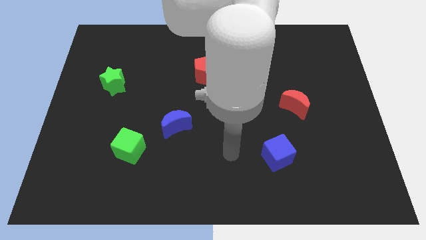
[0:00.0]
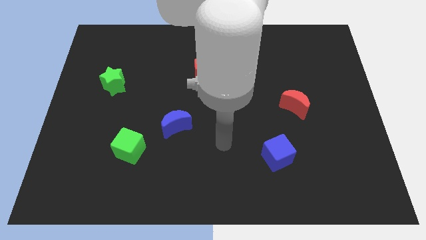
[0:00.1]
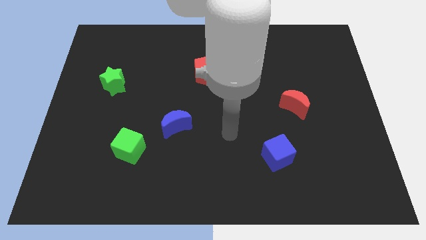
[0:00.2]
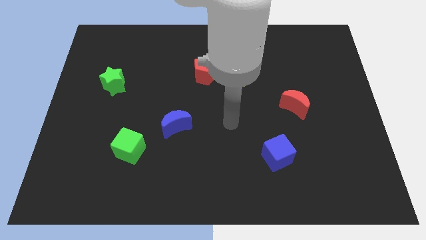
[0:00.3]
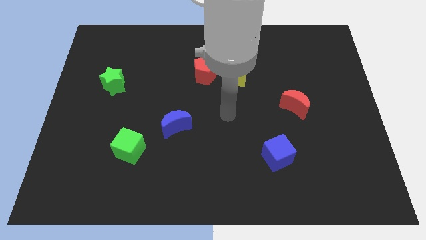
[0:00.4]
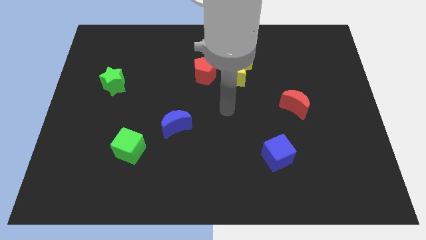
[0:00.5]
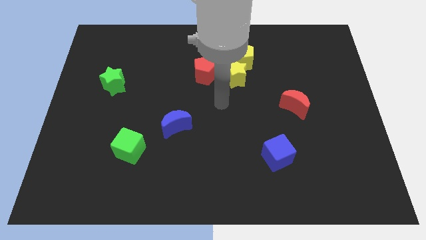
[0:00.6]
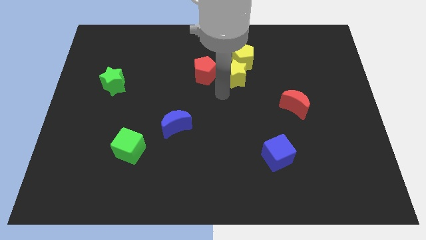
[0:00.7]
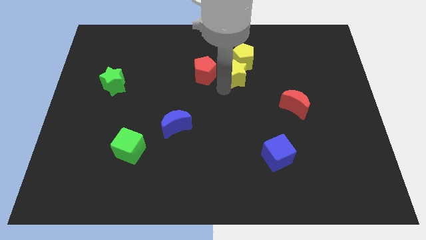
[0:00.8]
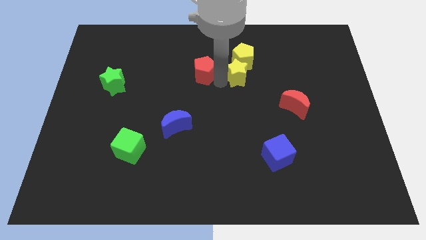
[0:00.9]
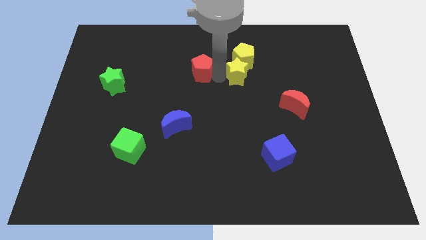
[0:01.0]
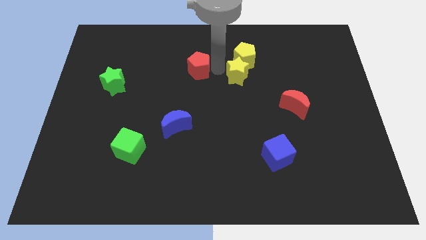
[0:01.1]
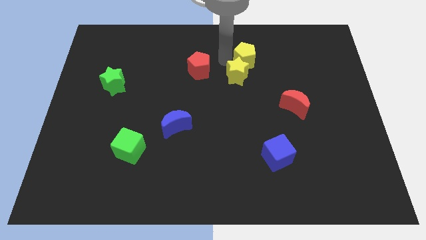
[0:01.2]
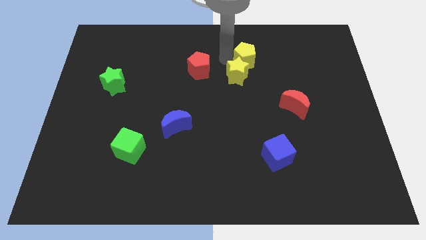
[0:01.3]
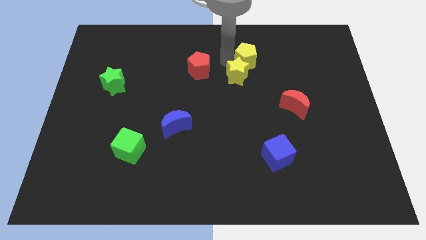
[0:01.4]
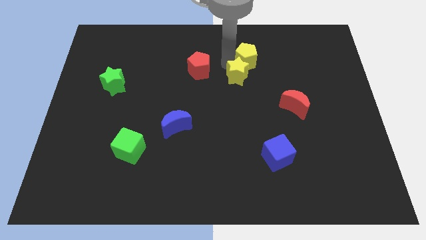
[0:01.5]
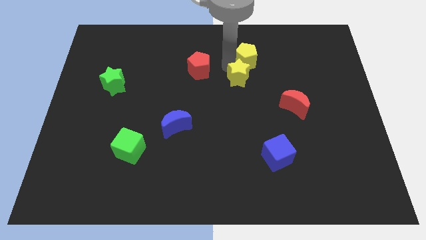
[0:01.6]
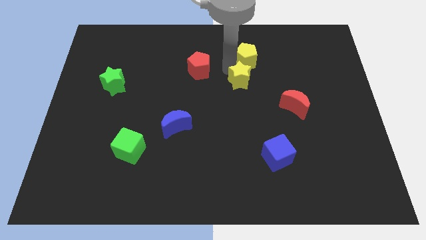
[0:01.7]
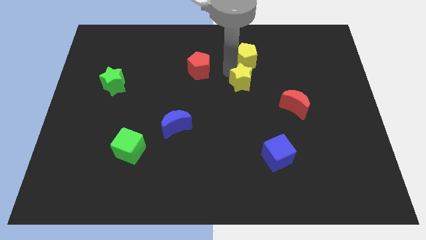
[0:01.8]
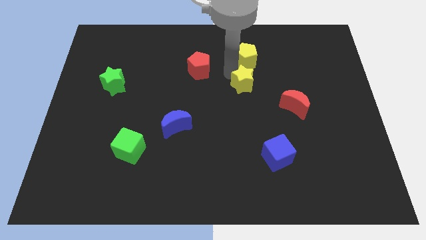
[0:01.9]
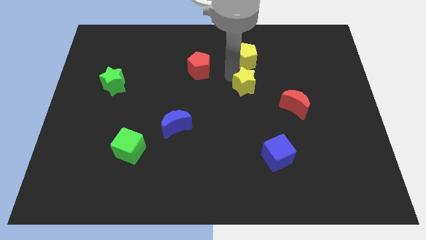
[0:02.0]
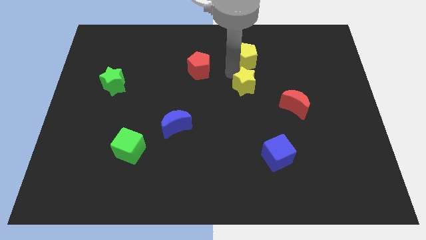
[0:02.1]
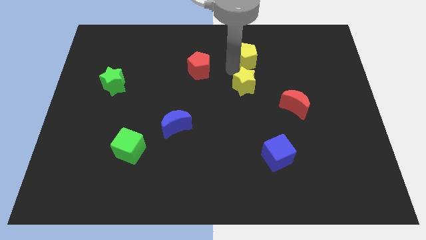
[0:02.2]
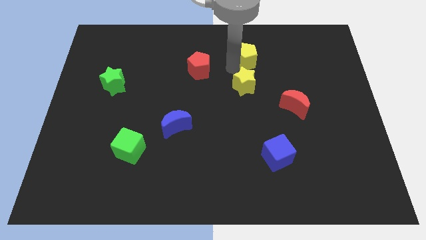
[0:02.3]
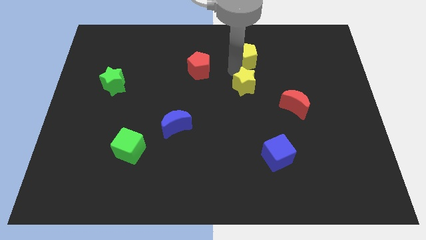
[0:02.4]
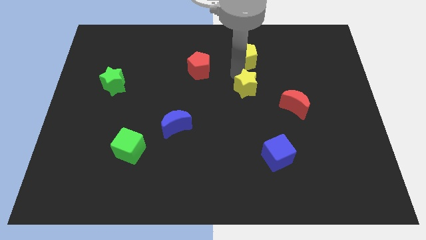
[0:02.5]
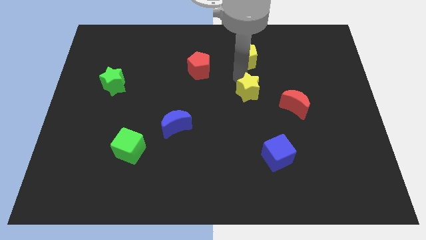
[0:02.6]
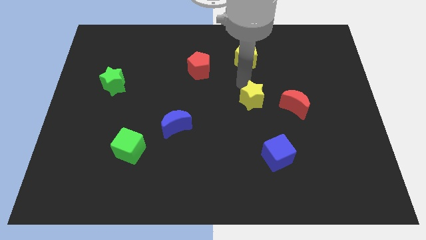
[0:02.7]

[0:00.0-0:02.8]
slightly move the yellow star downwards and to the right

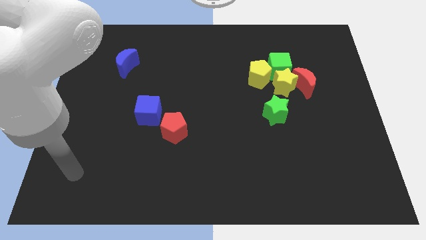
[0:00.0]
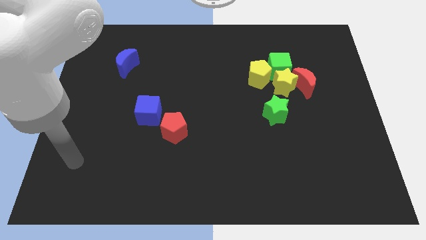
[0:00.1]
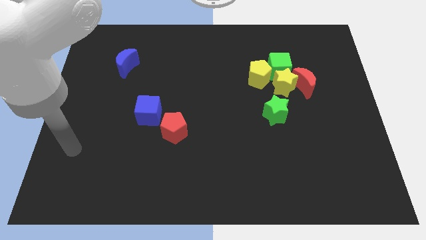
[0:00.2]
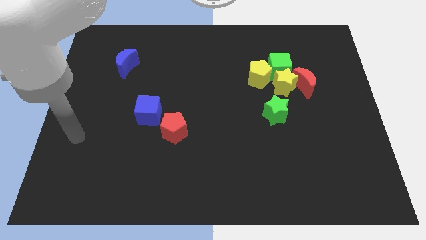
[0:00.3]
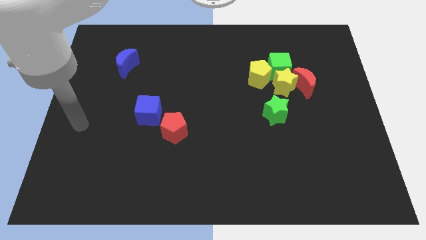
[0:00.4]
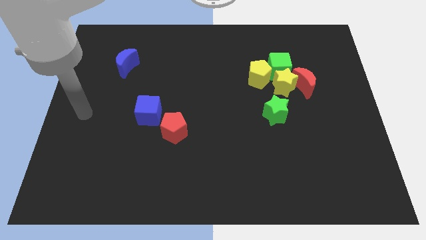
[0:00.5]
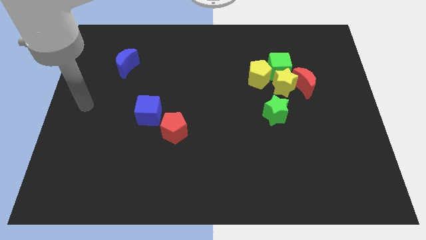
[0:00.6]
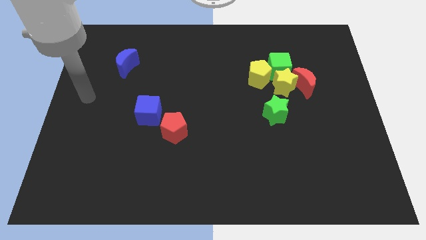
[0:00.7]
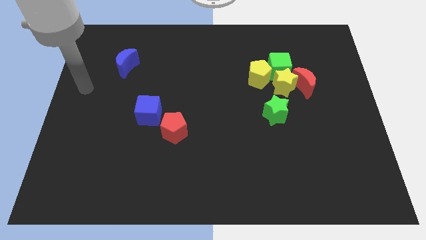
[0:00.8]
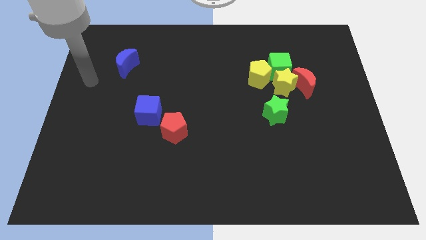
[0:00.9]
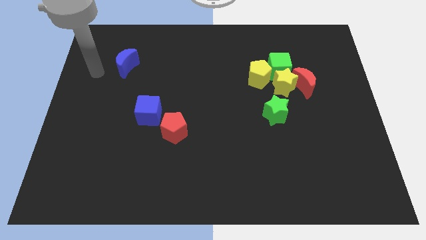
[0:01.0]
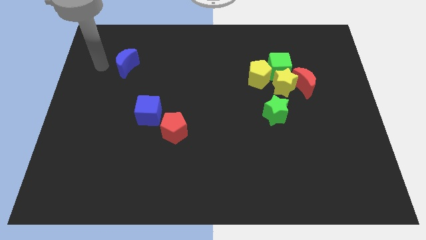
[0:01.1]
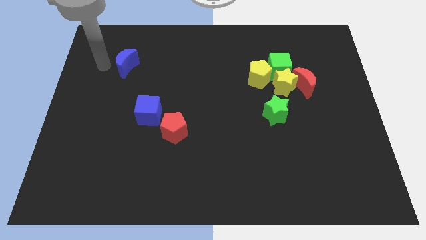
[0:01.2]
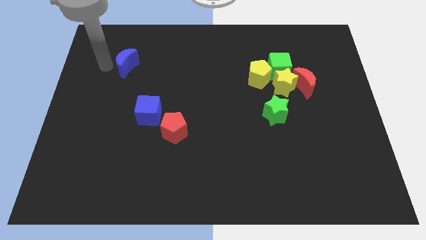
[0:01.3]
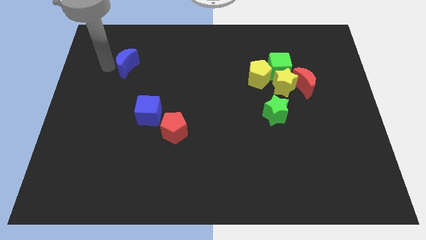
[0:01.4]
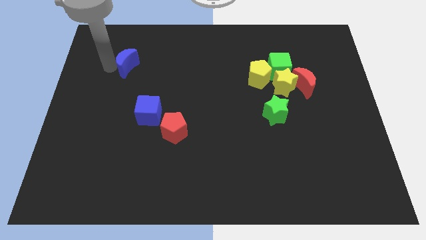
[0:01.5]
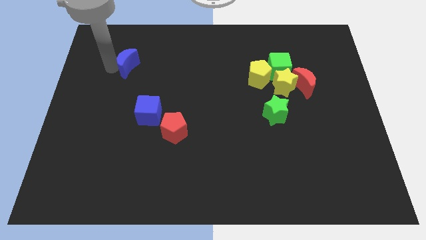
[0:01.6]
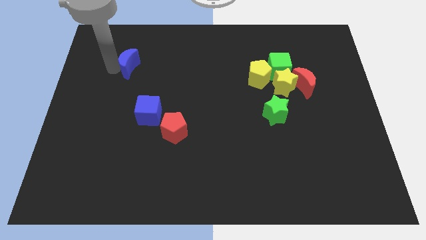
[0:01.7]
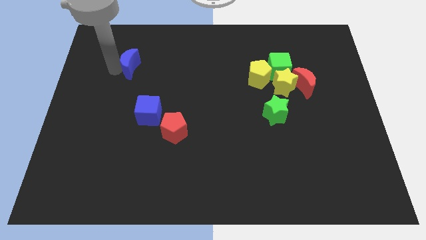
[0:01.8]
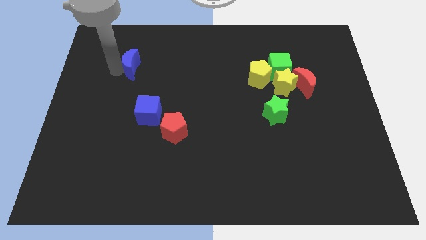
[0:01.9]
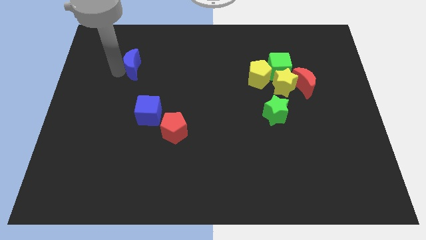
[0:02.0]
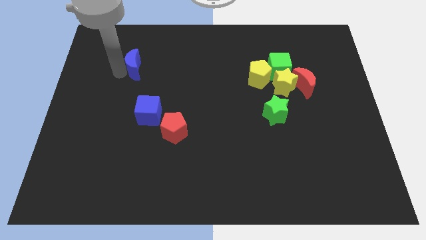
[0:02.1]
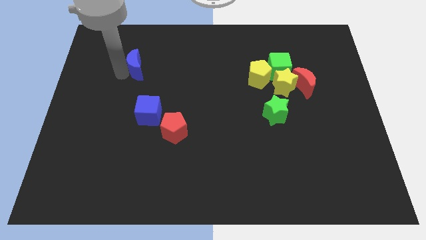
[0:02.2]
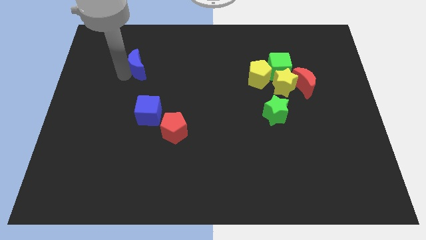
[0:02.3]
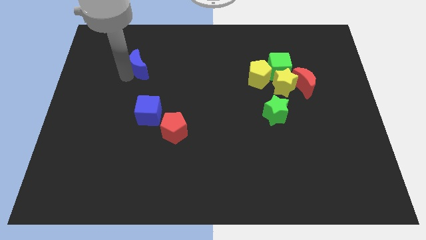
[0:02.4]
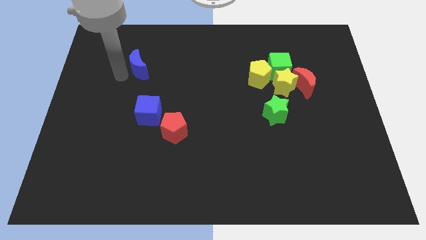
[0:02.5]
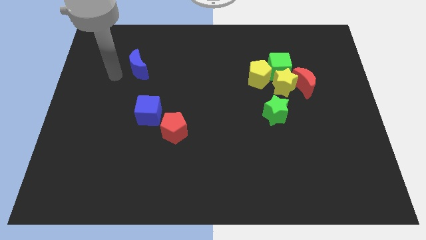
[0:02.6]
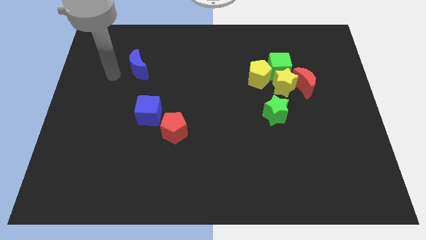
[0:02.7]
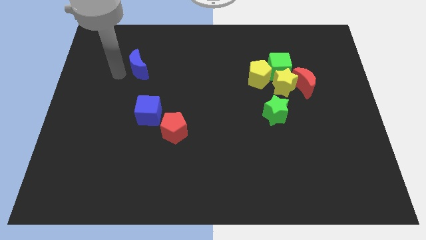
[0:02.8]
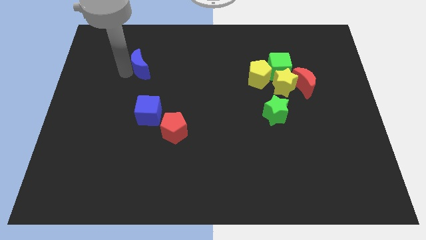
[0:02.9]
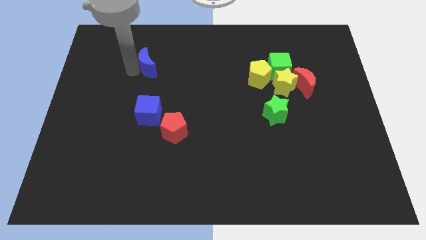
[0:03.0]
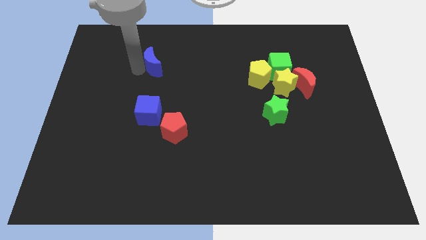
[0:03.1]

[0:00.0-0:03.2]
slightly push the blue moon right

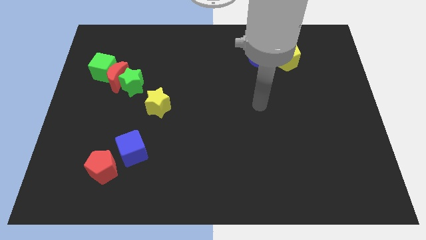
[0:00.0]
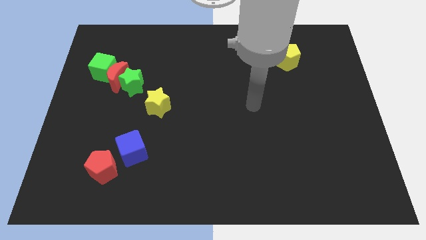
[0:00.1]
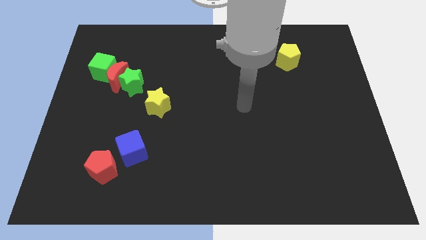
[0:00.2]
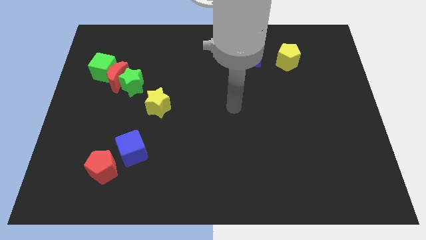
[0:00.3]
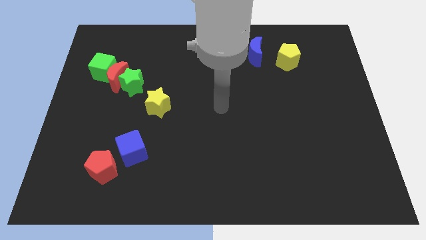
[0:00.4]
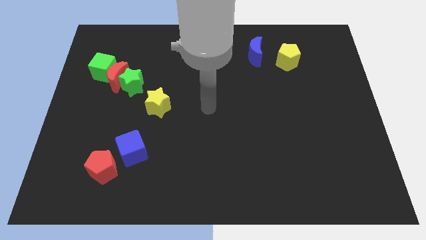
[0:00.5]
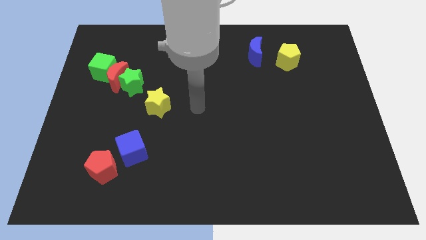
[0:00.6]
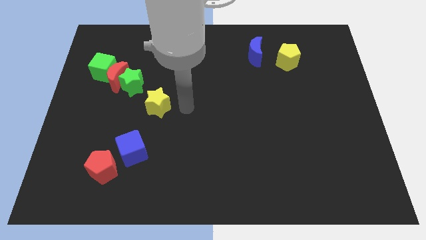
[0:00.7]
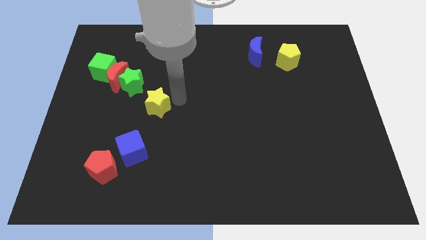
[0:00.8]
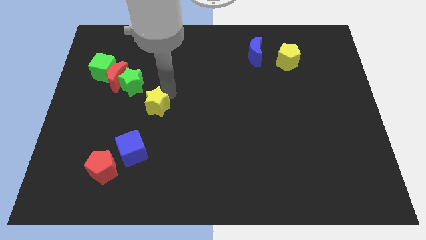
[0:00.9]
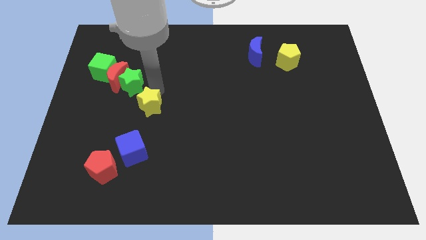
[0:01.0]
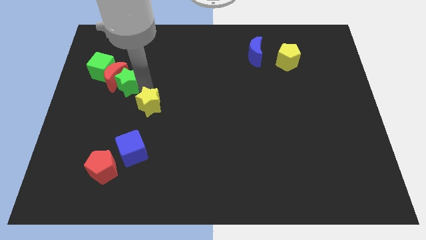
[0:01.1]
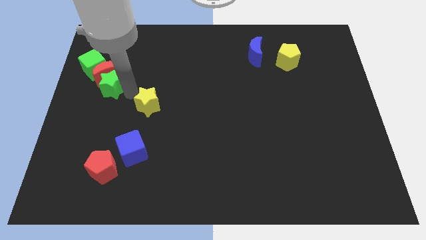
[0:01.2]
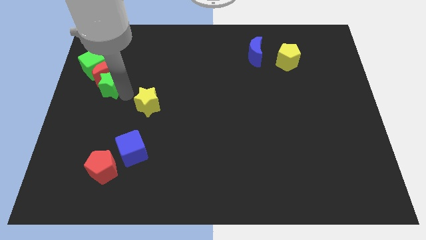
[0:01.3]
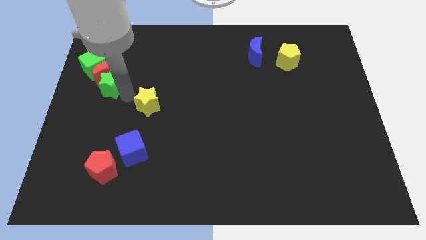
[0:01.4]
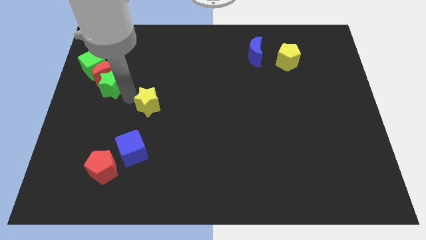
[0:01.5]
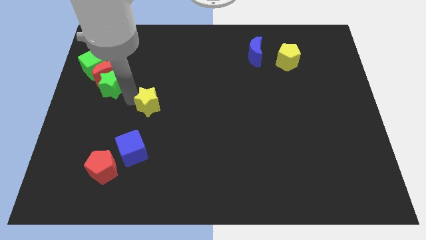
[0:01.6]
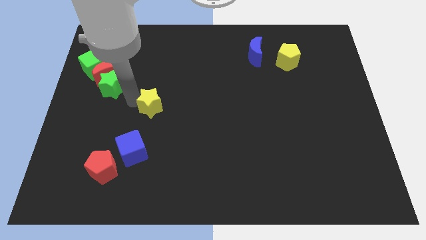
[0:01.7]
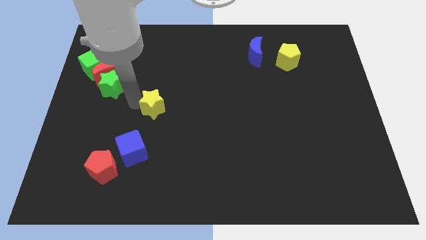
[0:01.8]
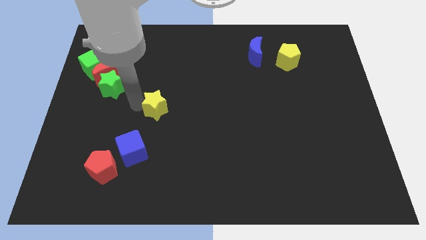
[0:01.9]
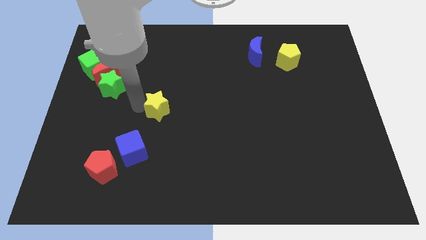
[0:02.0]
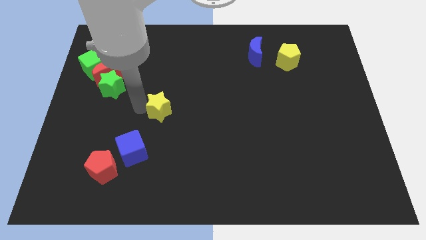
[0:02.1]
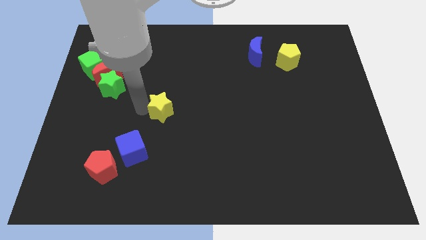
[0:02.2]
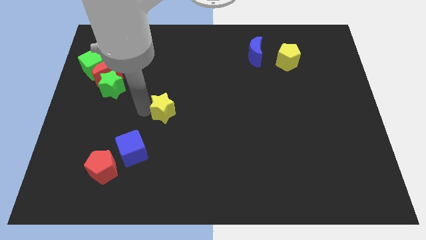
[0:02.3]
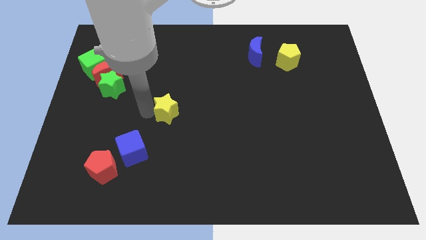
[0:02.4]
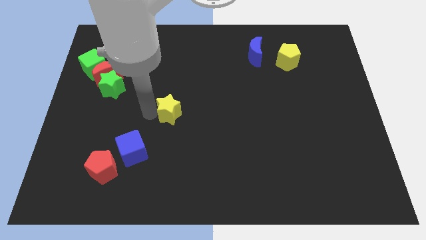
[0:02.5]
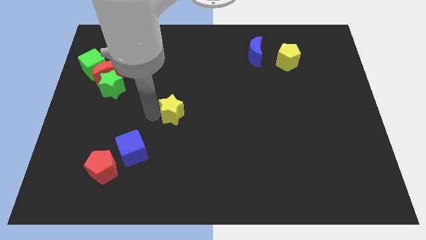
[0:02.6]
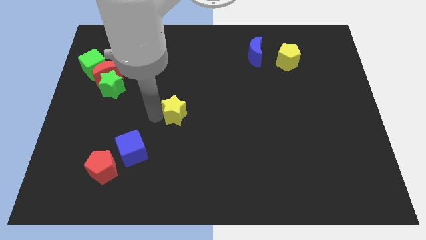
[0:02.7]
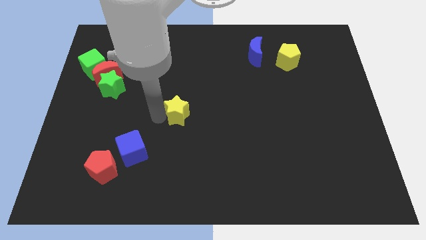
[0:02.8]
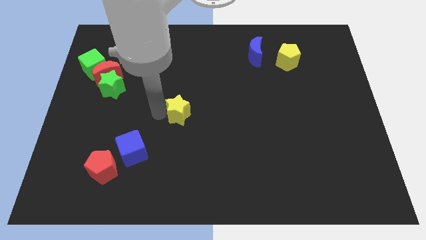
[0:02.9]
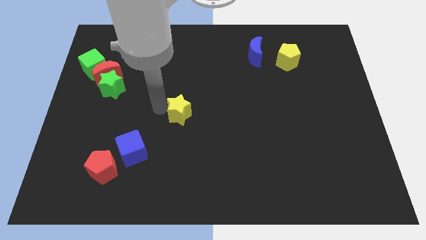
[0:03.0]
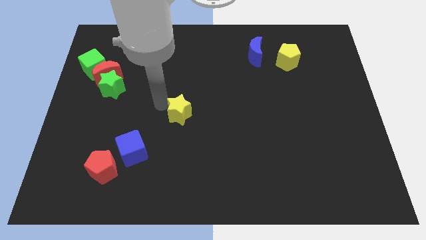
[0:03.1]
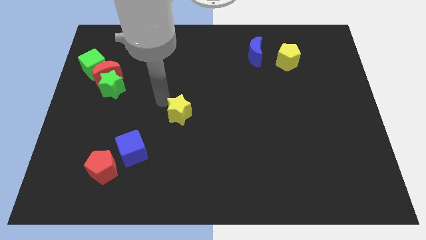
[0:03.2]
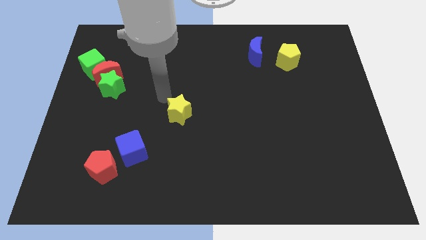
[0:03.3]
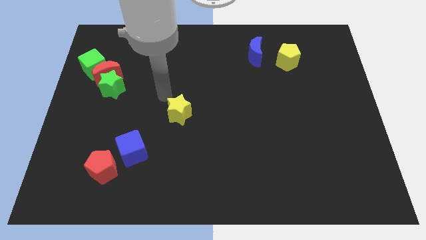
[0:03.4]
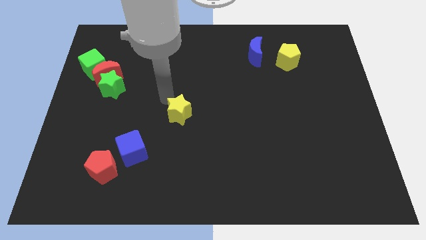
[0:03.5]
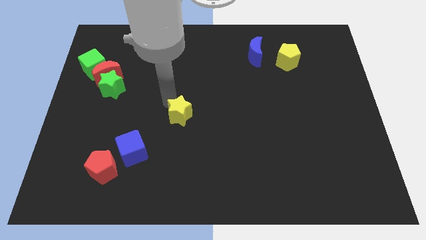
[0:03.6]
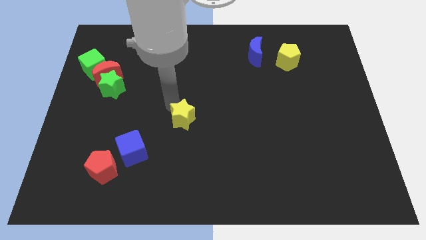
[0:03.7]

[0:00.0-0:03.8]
push the yellow star down and right a little bit
